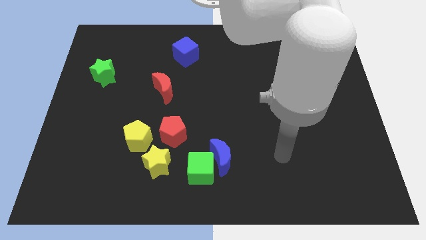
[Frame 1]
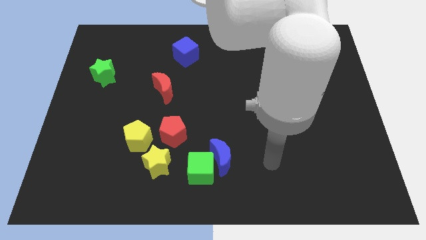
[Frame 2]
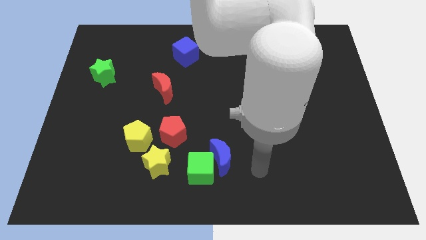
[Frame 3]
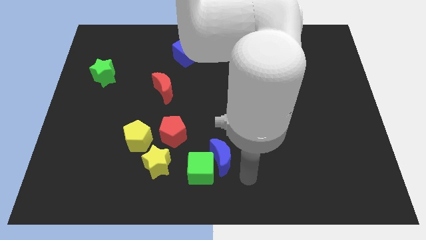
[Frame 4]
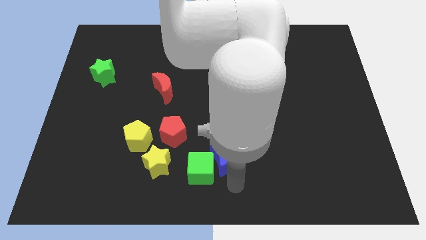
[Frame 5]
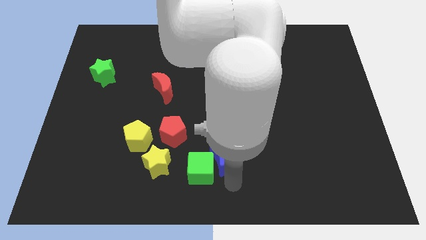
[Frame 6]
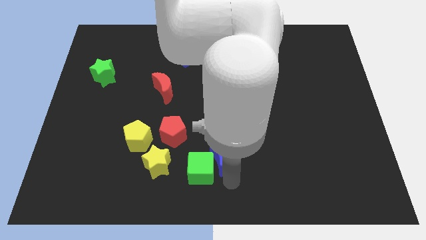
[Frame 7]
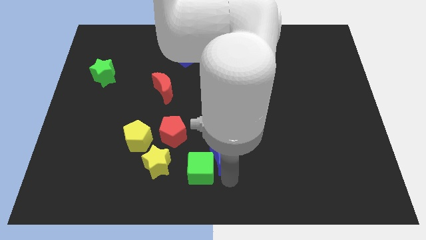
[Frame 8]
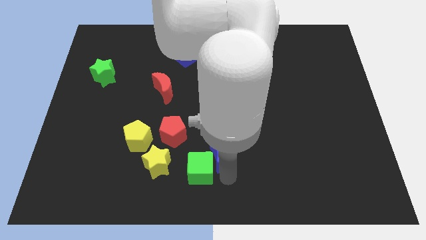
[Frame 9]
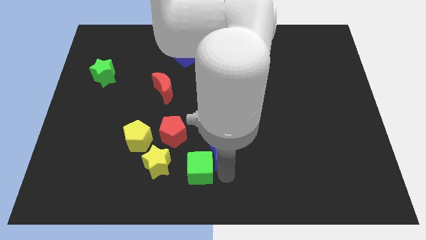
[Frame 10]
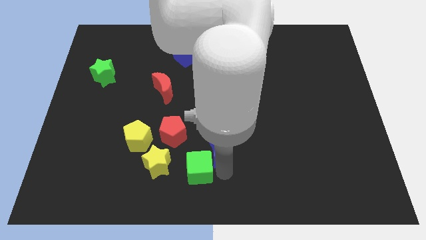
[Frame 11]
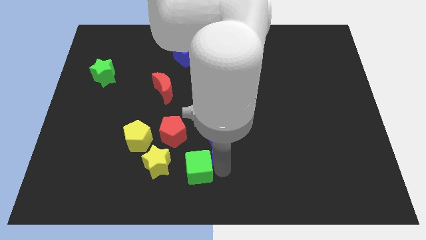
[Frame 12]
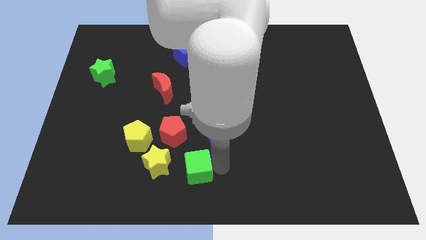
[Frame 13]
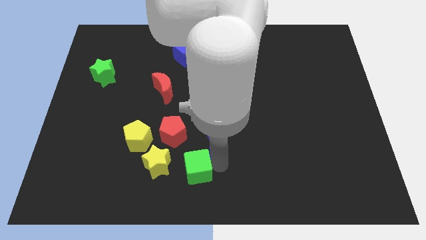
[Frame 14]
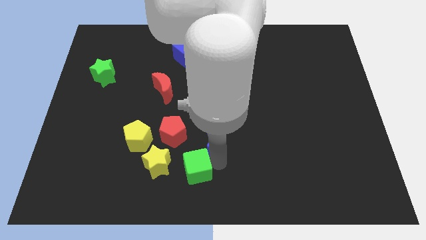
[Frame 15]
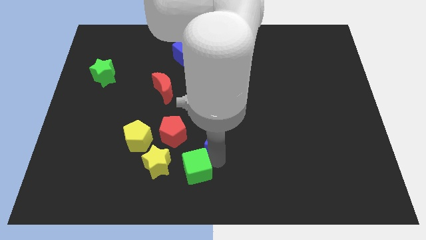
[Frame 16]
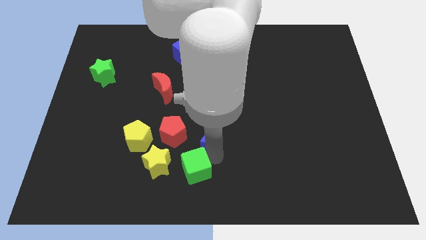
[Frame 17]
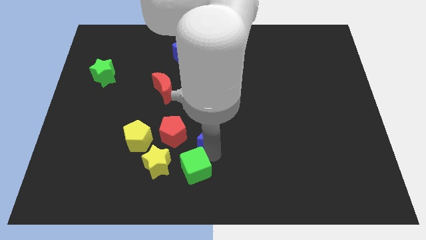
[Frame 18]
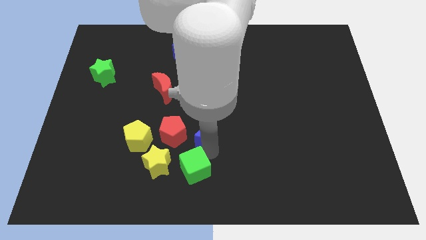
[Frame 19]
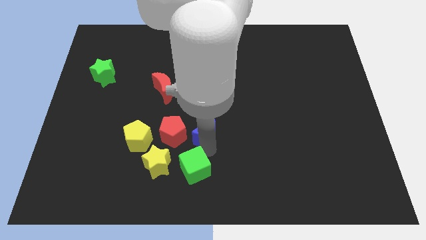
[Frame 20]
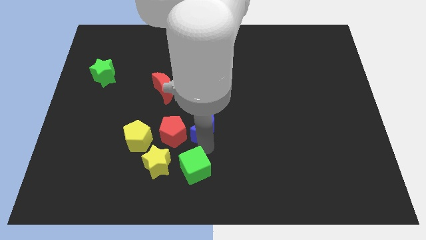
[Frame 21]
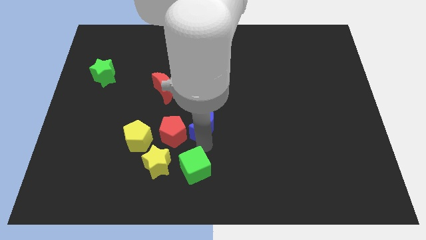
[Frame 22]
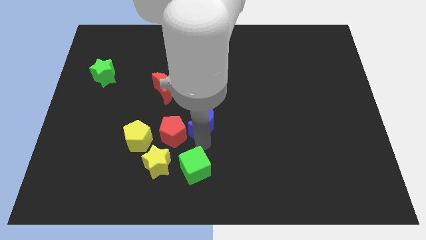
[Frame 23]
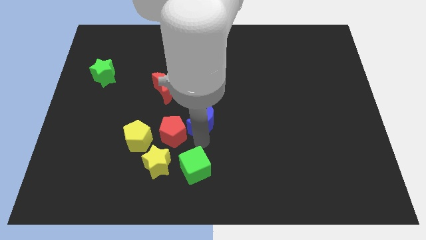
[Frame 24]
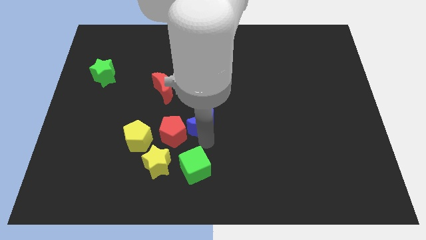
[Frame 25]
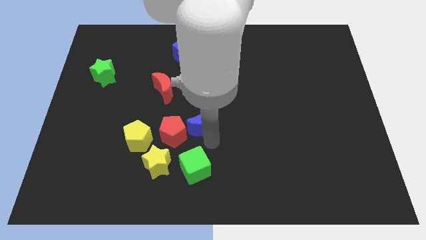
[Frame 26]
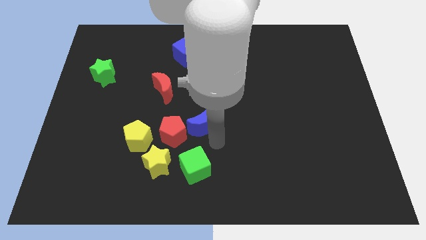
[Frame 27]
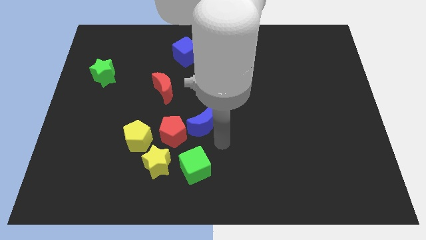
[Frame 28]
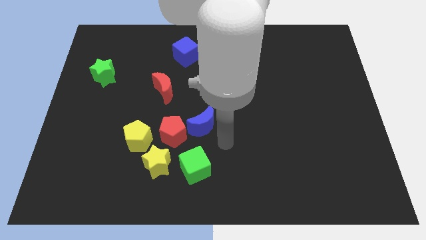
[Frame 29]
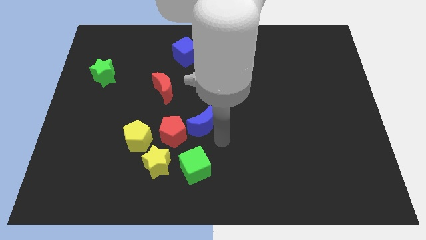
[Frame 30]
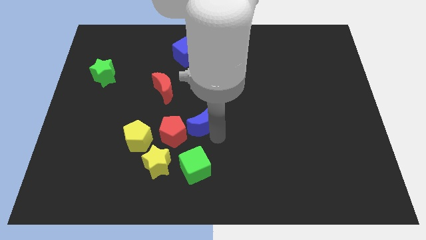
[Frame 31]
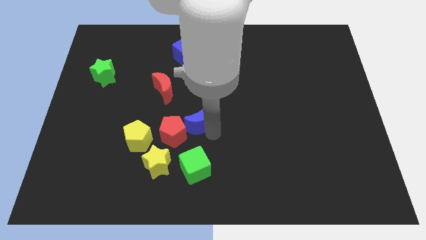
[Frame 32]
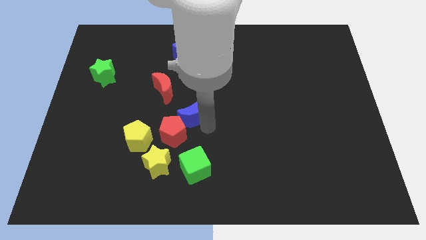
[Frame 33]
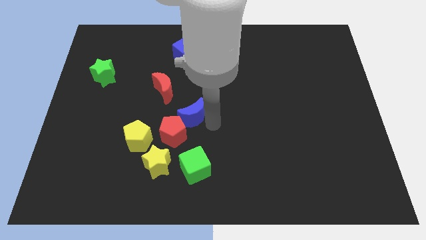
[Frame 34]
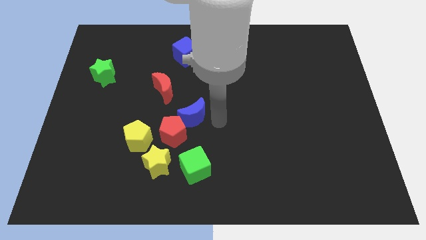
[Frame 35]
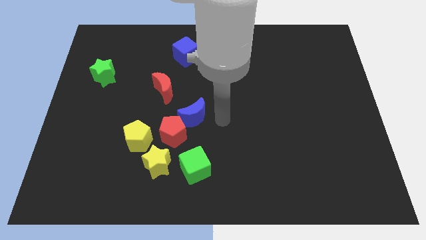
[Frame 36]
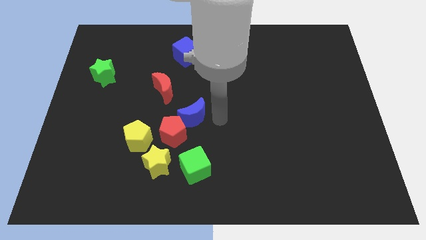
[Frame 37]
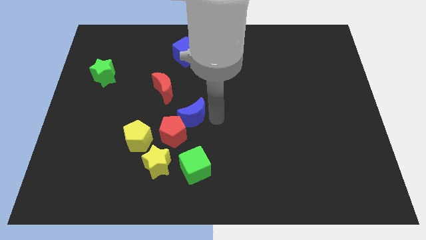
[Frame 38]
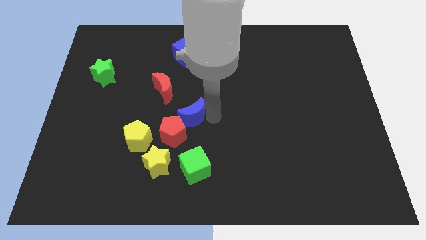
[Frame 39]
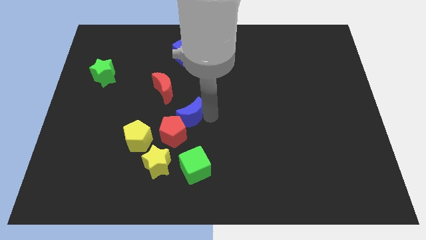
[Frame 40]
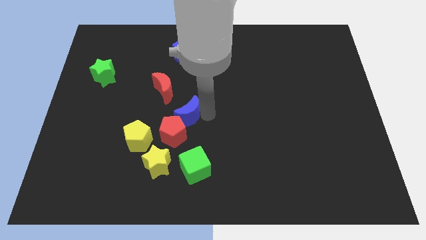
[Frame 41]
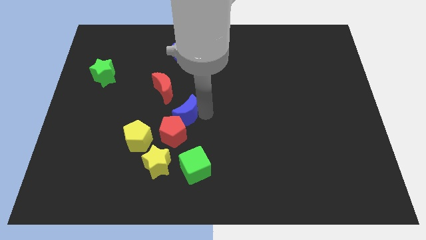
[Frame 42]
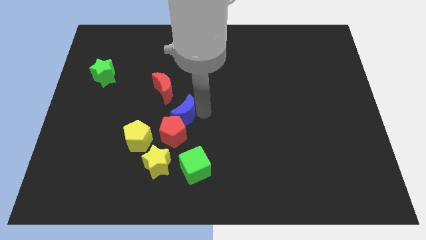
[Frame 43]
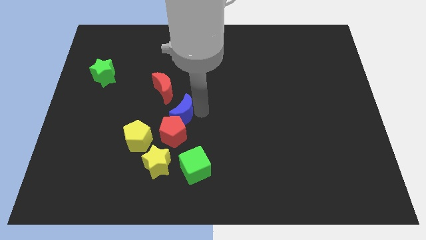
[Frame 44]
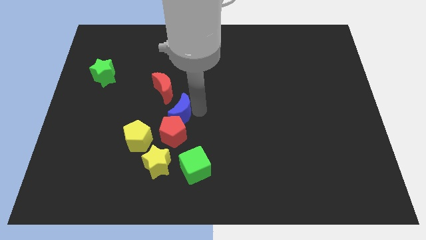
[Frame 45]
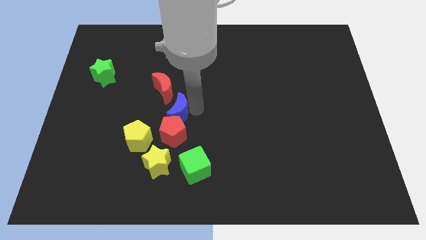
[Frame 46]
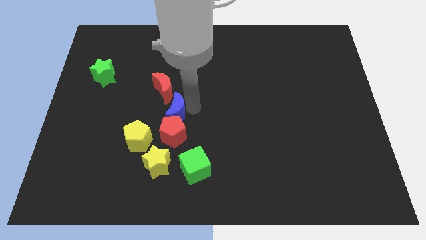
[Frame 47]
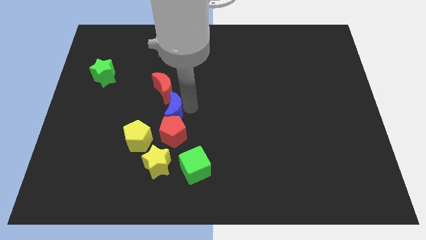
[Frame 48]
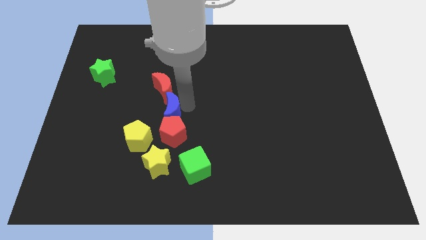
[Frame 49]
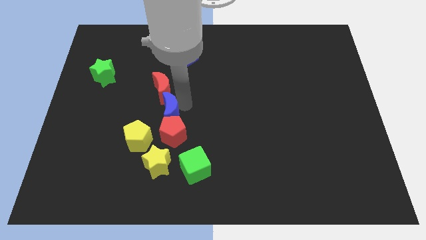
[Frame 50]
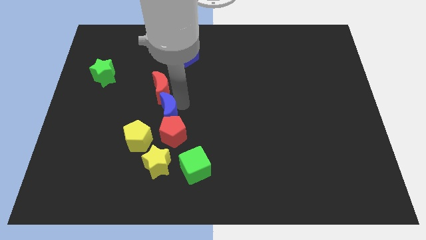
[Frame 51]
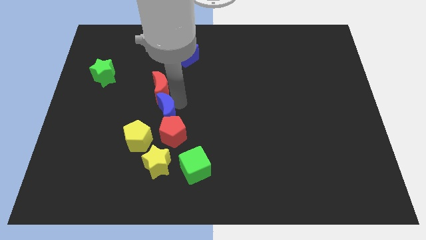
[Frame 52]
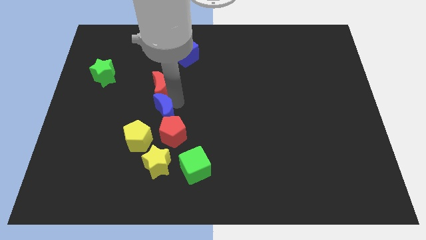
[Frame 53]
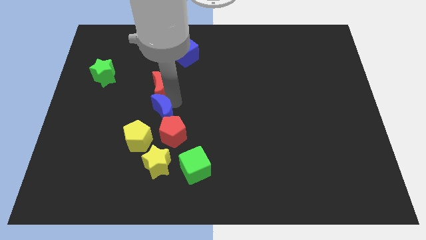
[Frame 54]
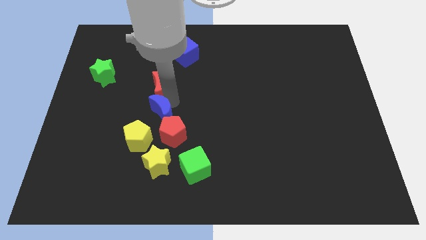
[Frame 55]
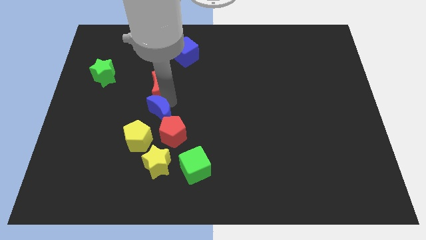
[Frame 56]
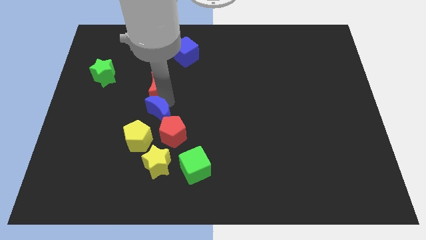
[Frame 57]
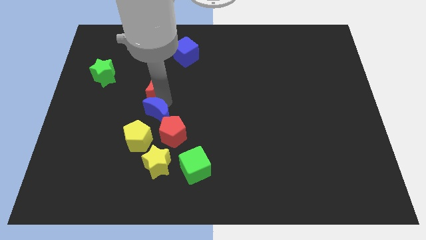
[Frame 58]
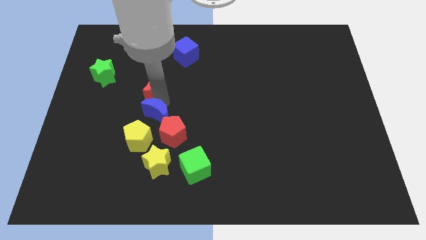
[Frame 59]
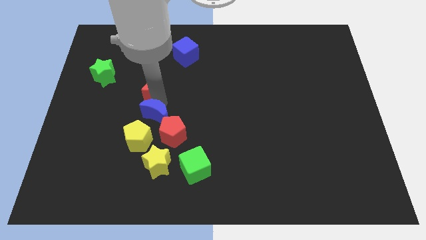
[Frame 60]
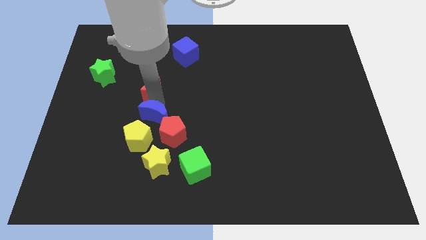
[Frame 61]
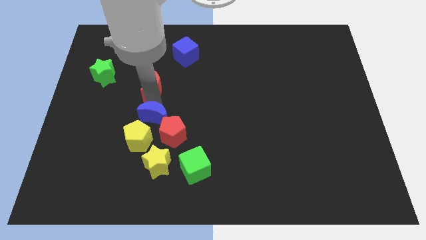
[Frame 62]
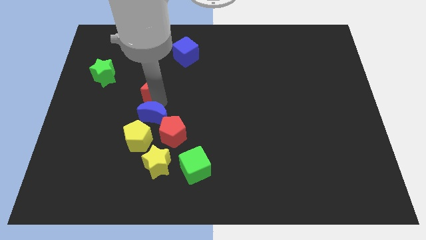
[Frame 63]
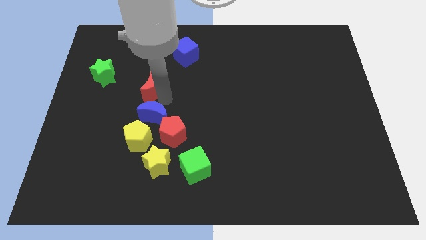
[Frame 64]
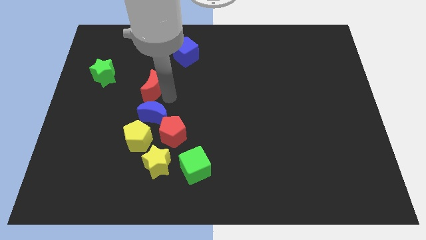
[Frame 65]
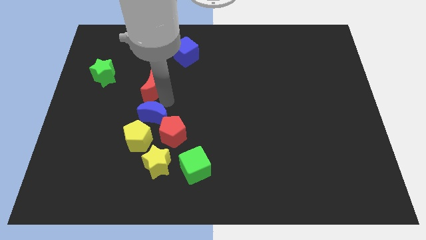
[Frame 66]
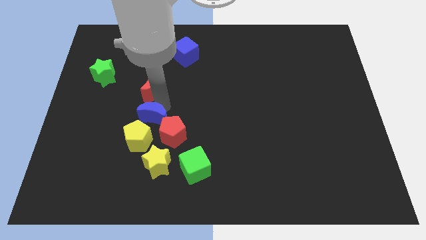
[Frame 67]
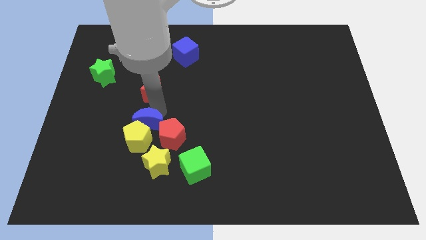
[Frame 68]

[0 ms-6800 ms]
push the blue moon next to the yellow pentagon

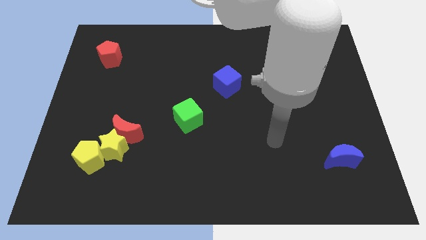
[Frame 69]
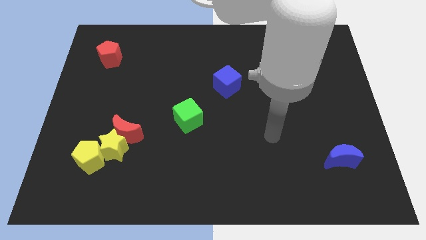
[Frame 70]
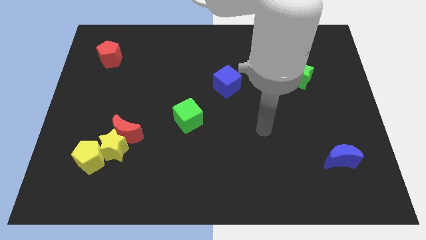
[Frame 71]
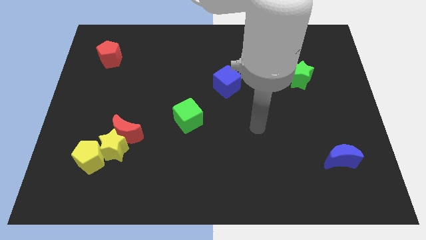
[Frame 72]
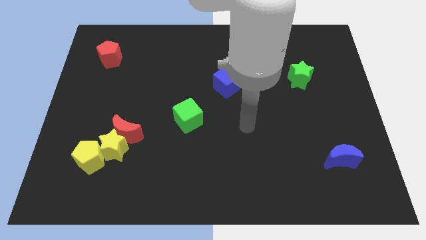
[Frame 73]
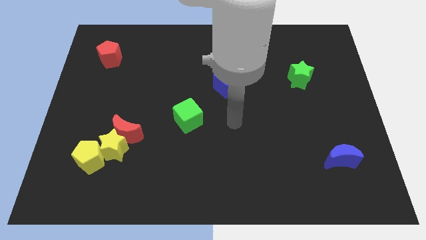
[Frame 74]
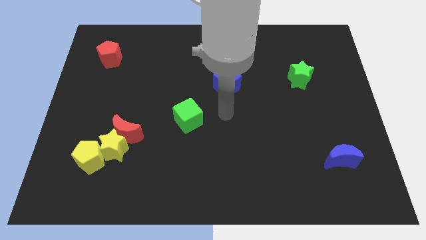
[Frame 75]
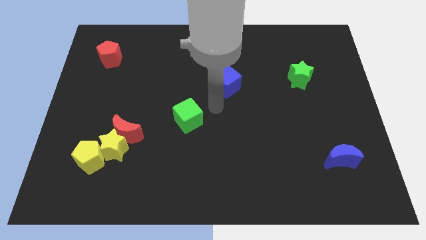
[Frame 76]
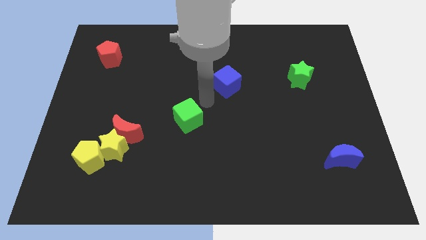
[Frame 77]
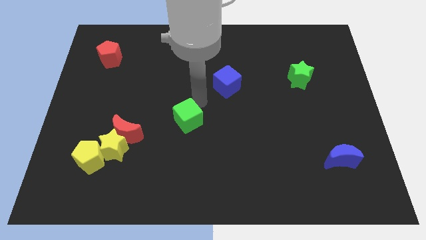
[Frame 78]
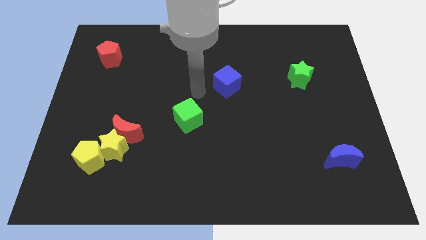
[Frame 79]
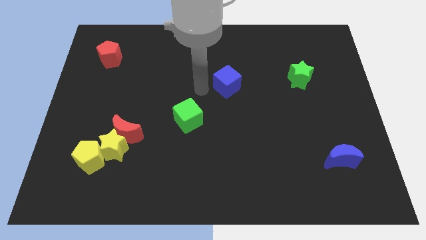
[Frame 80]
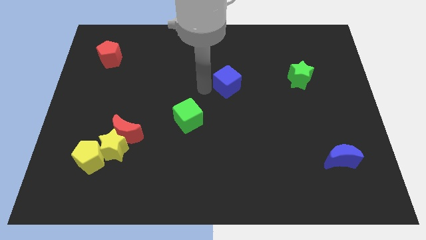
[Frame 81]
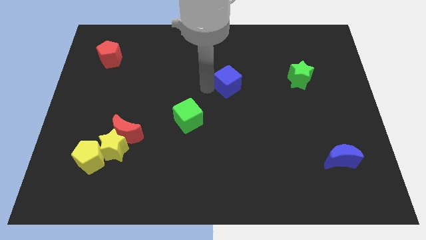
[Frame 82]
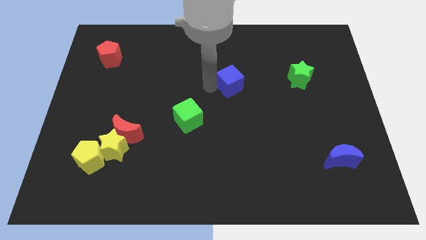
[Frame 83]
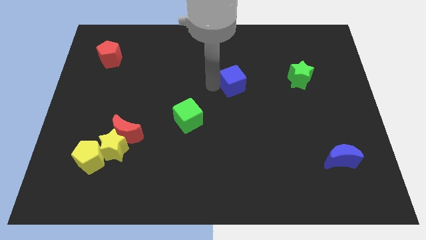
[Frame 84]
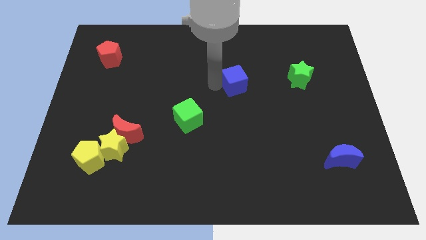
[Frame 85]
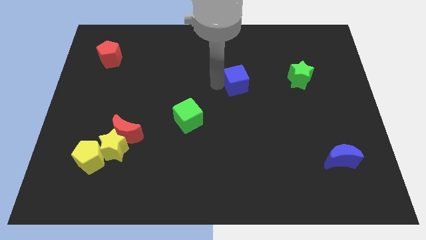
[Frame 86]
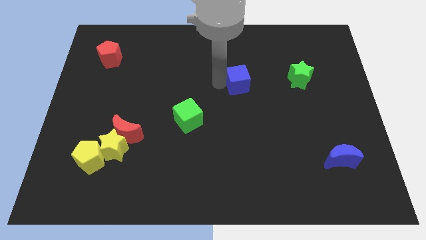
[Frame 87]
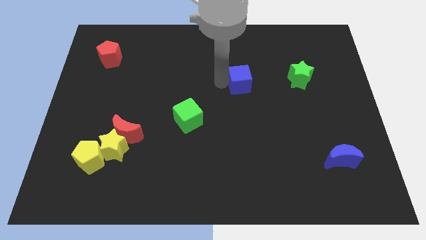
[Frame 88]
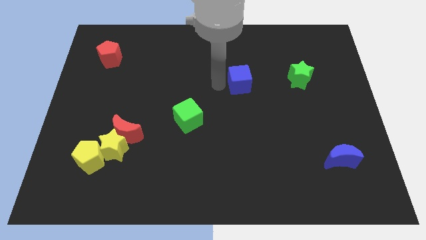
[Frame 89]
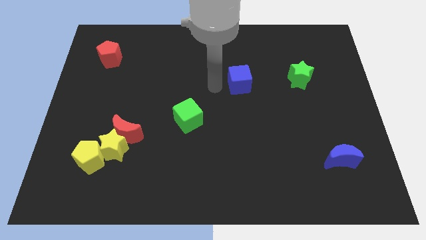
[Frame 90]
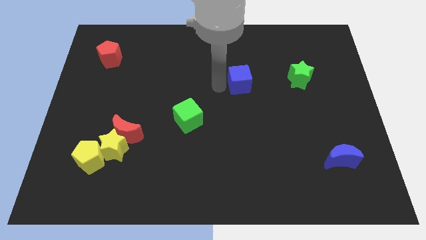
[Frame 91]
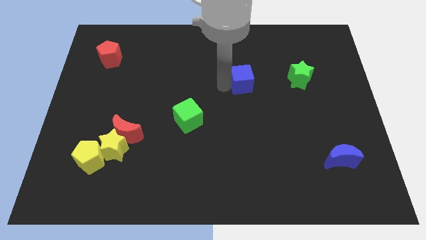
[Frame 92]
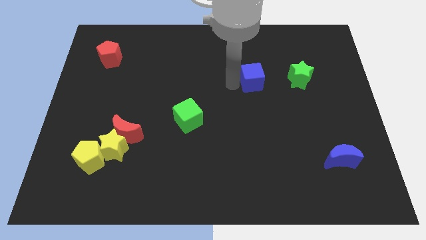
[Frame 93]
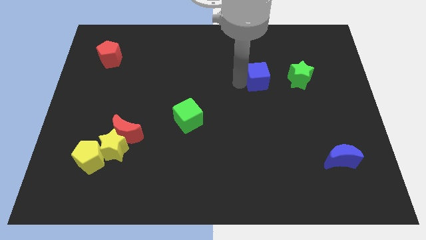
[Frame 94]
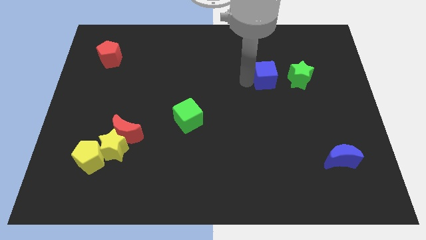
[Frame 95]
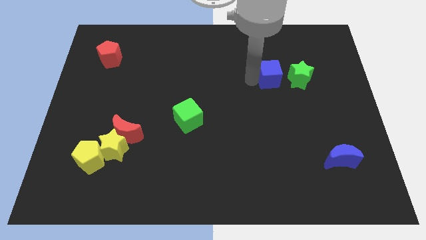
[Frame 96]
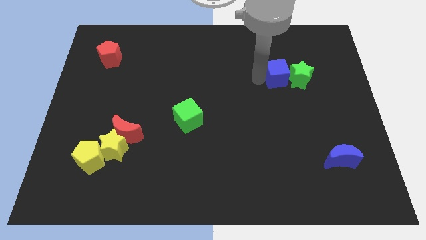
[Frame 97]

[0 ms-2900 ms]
slide the blue cube next to the green star
